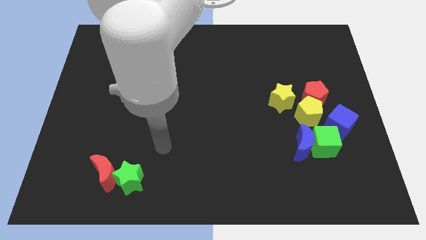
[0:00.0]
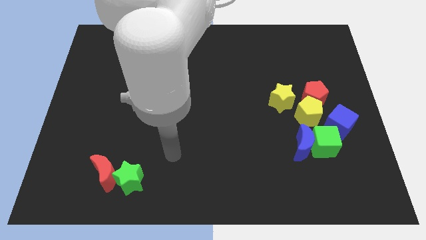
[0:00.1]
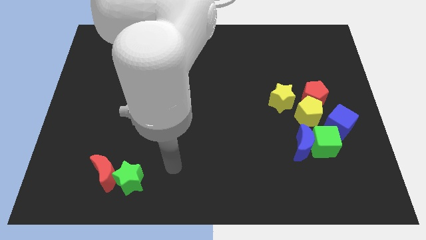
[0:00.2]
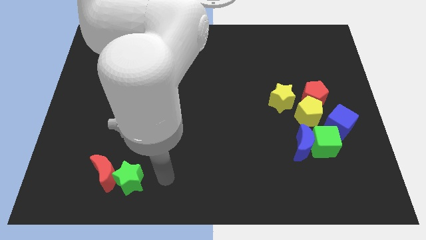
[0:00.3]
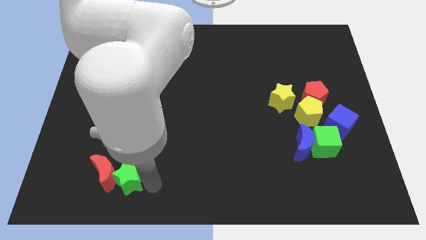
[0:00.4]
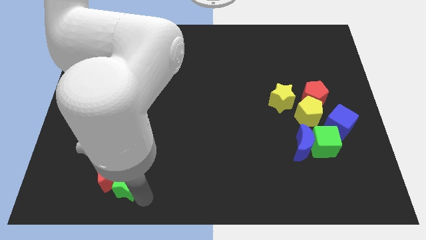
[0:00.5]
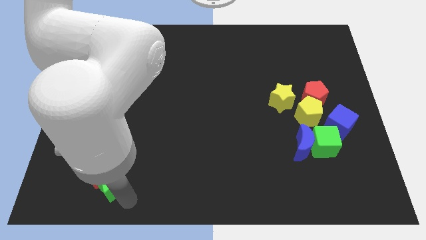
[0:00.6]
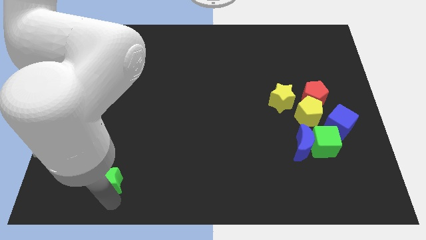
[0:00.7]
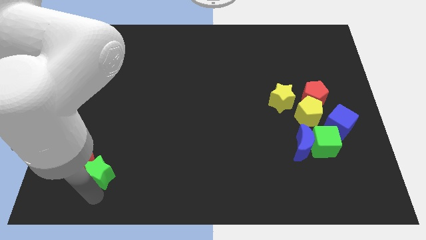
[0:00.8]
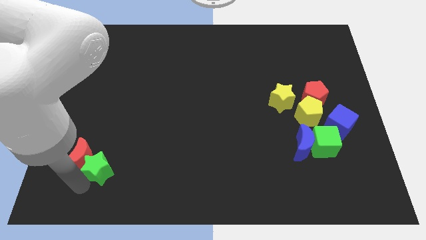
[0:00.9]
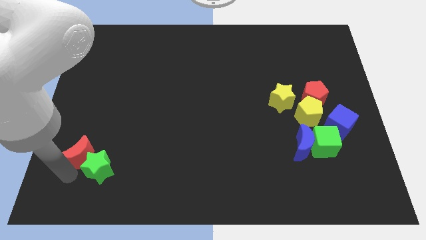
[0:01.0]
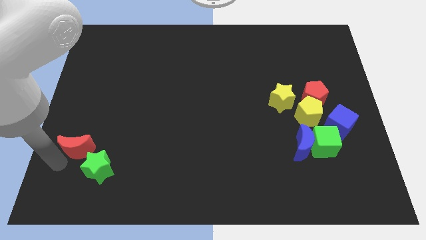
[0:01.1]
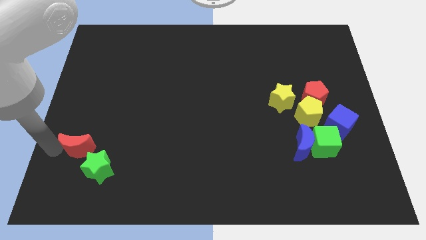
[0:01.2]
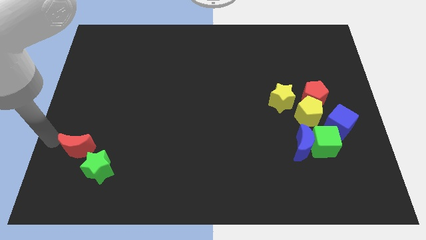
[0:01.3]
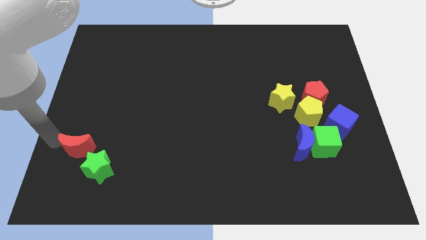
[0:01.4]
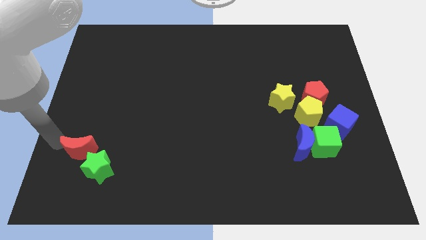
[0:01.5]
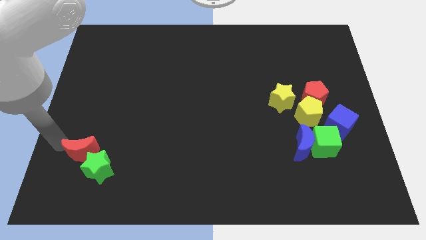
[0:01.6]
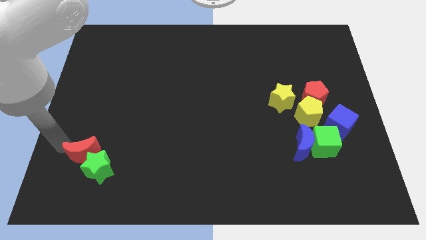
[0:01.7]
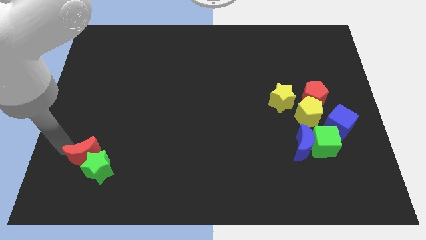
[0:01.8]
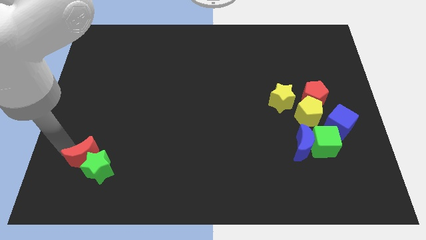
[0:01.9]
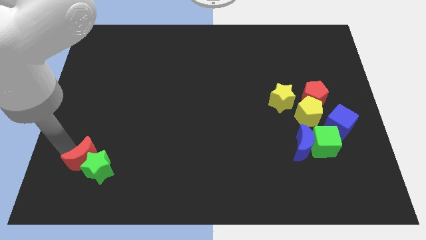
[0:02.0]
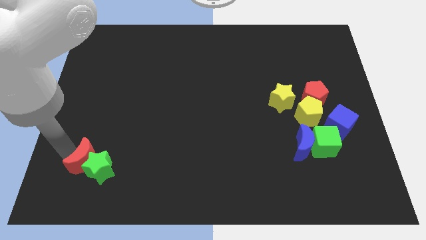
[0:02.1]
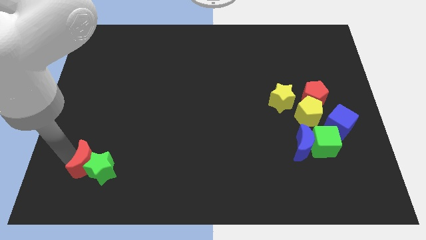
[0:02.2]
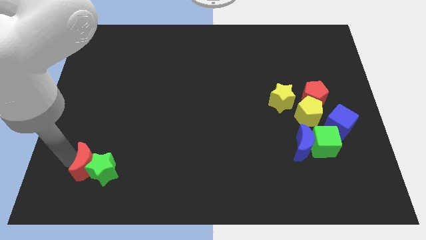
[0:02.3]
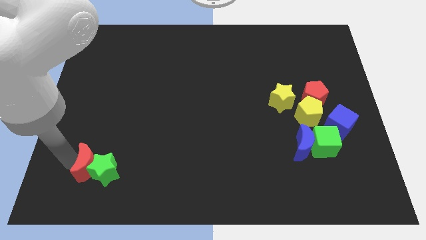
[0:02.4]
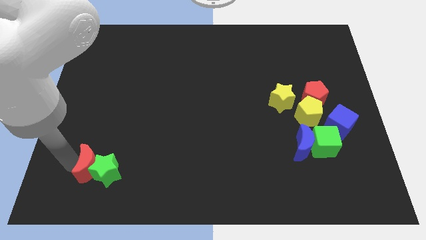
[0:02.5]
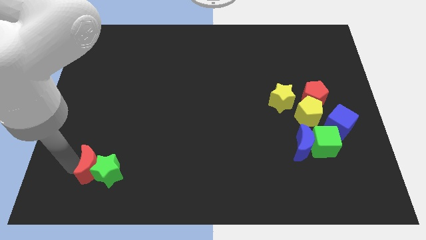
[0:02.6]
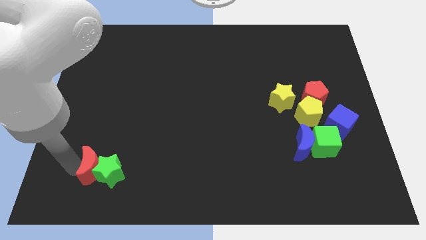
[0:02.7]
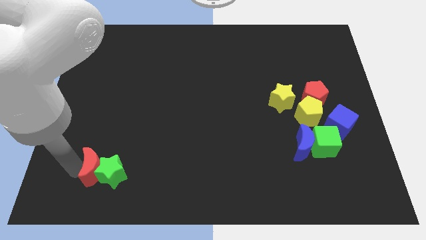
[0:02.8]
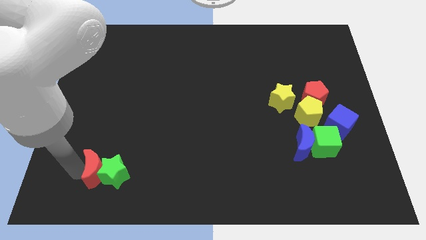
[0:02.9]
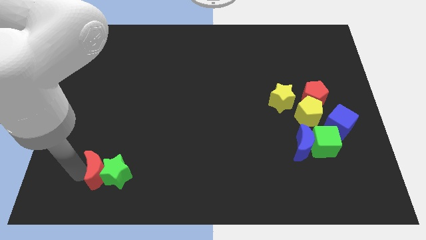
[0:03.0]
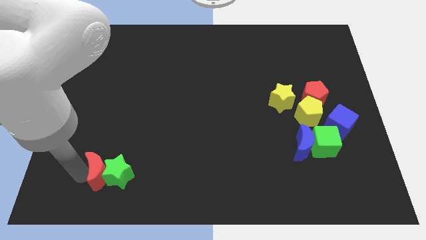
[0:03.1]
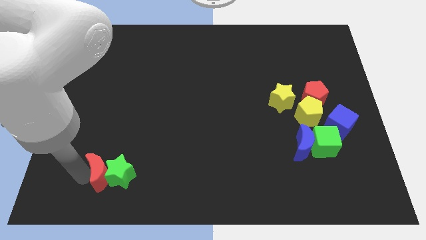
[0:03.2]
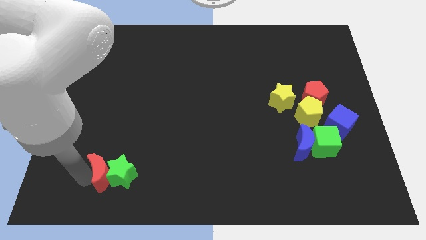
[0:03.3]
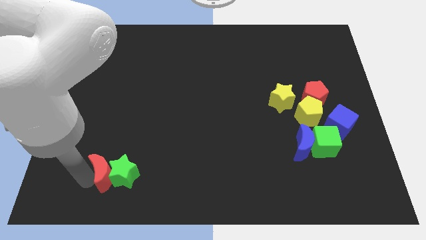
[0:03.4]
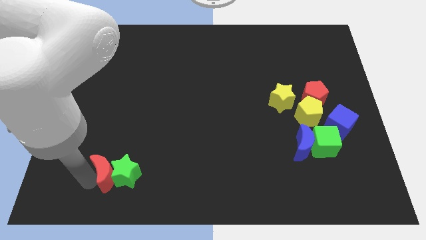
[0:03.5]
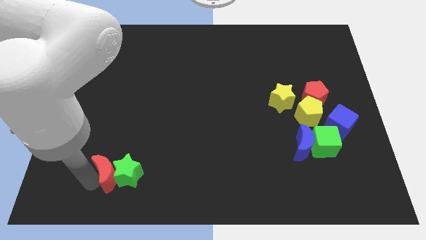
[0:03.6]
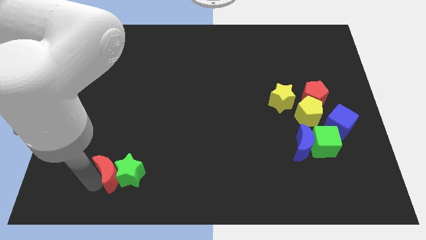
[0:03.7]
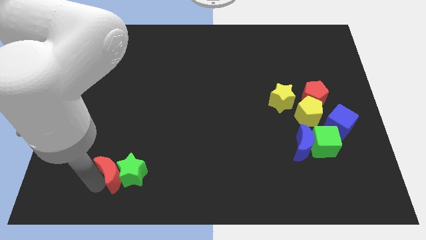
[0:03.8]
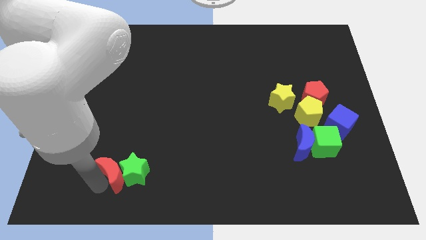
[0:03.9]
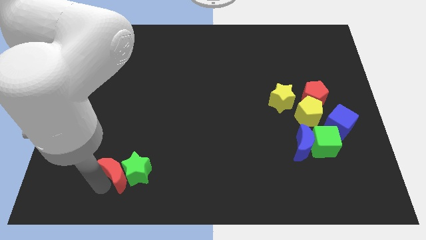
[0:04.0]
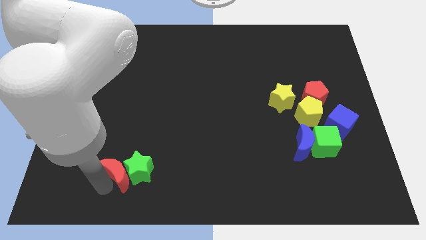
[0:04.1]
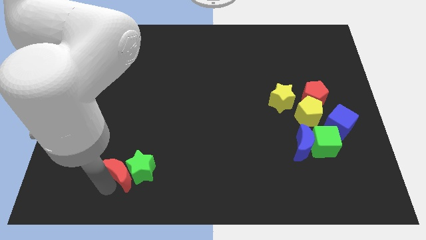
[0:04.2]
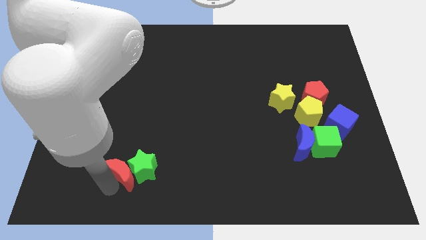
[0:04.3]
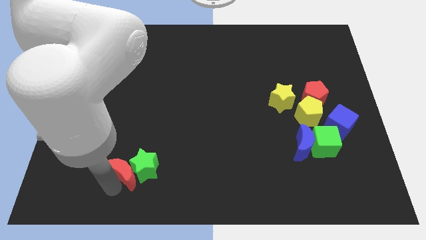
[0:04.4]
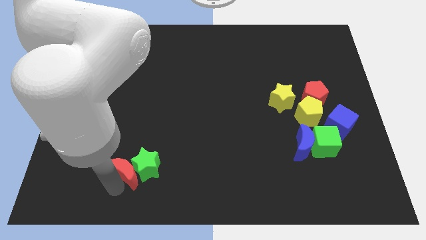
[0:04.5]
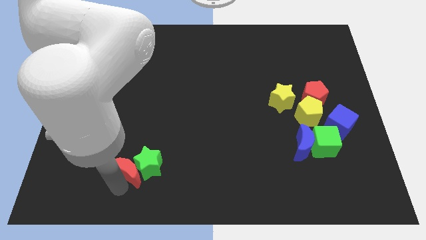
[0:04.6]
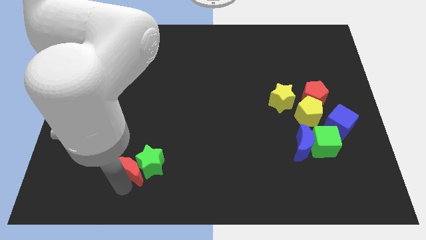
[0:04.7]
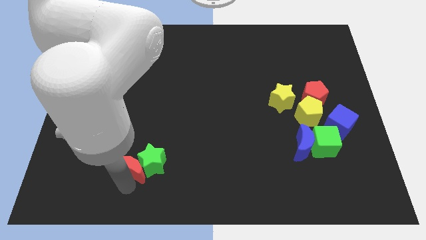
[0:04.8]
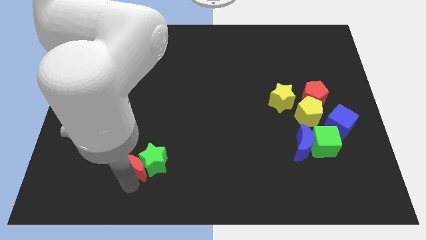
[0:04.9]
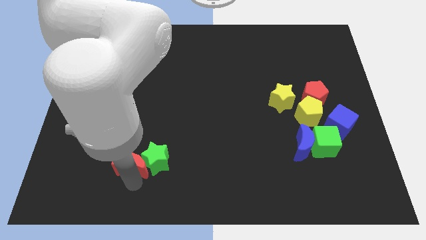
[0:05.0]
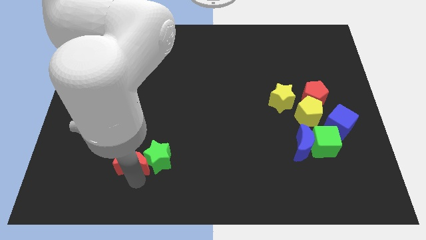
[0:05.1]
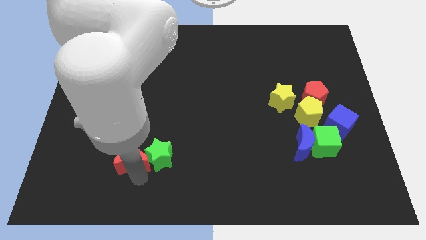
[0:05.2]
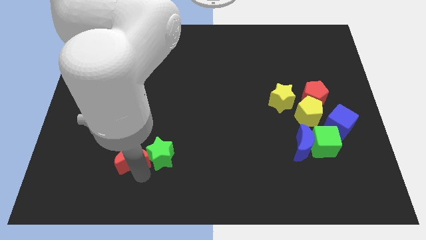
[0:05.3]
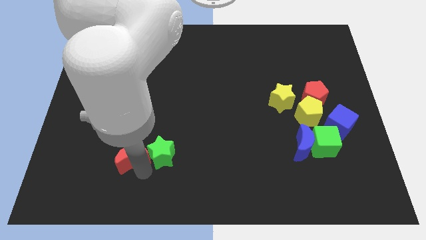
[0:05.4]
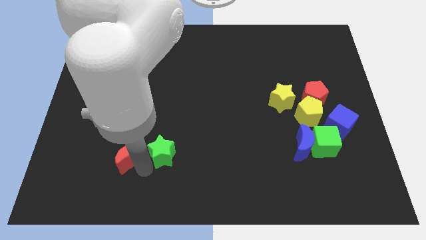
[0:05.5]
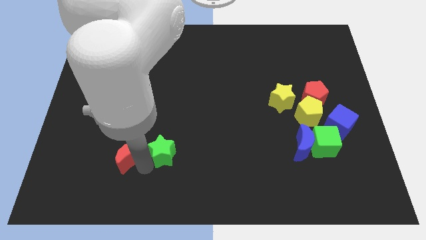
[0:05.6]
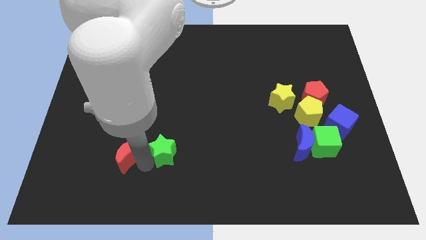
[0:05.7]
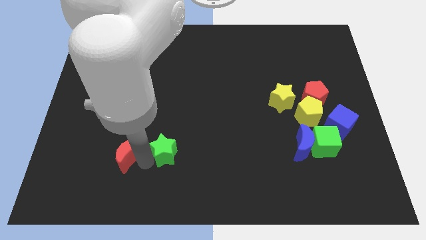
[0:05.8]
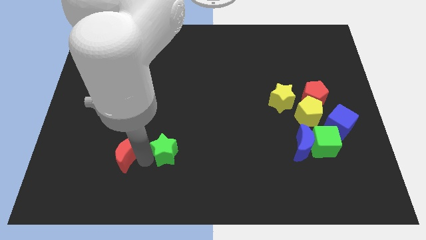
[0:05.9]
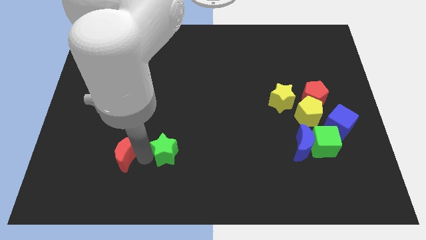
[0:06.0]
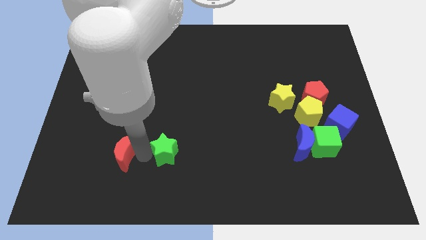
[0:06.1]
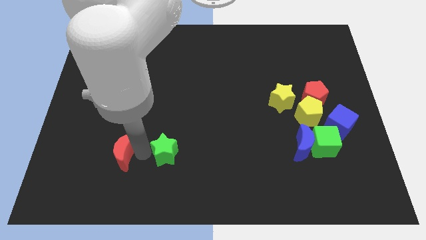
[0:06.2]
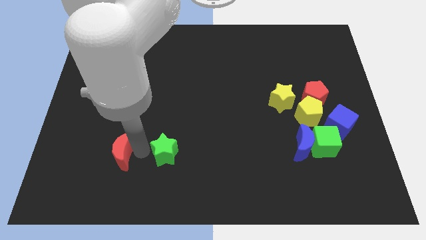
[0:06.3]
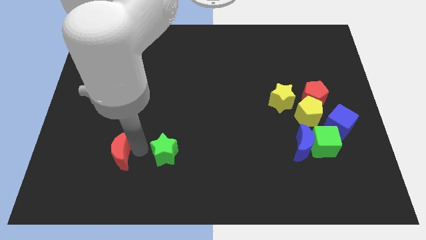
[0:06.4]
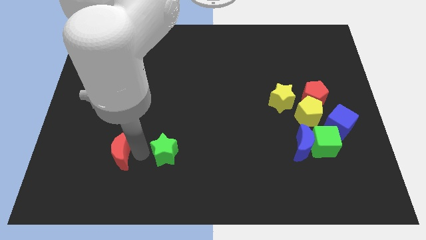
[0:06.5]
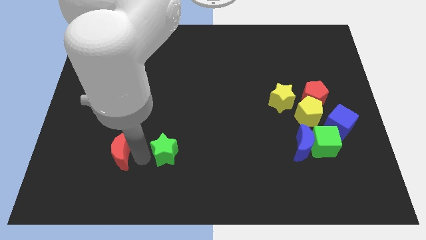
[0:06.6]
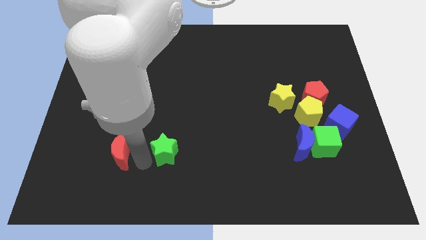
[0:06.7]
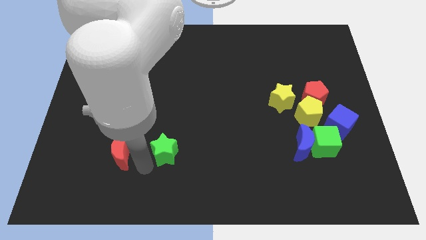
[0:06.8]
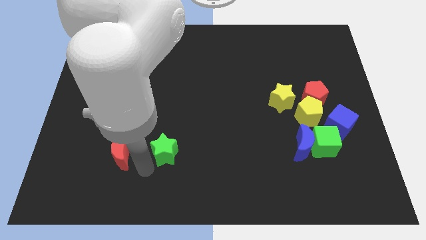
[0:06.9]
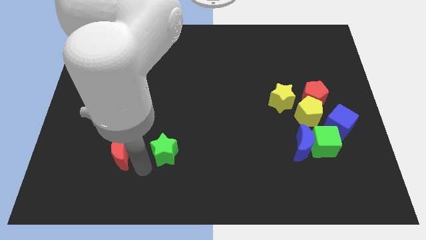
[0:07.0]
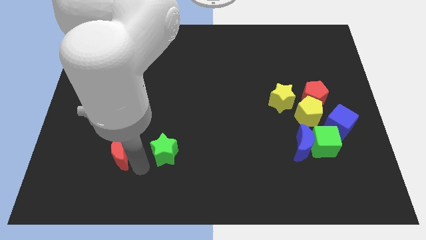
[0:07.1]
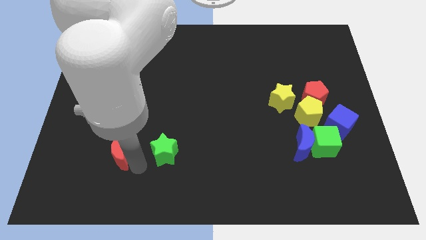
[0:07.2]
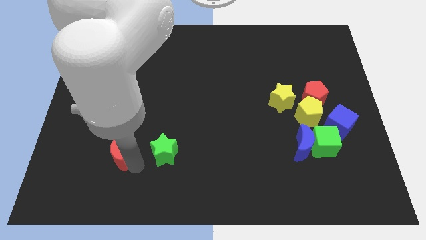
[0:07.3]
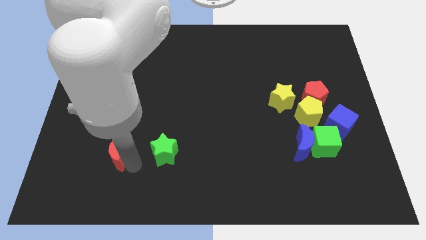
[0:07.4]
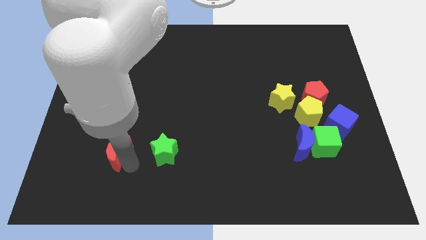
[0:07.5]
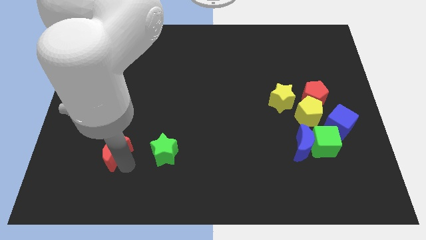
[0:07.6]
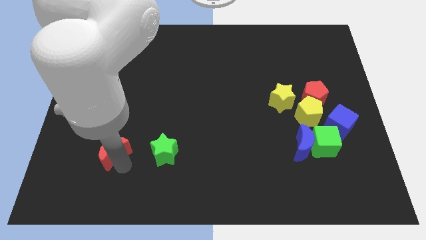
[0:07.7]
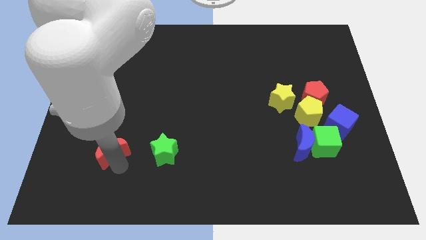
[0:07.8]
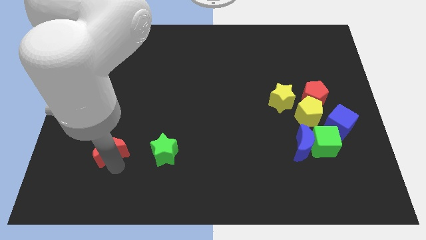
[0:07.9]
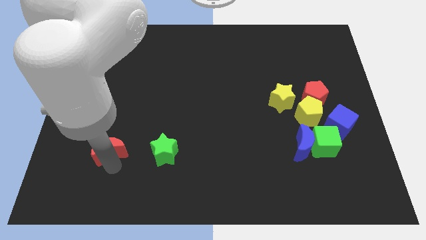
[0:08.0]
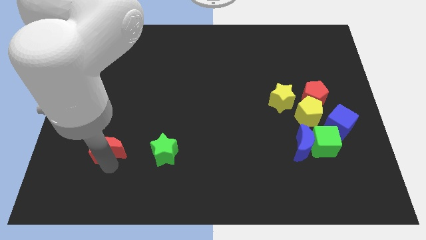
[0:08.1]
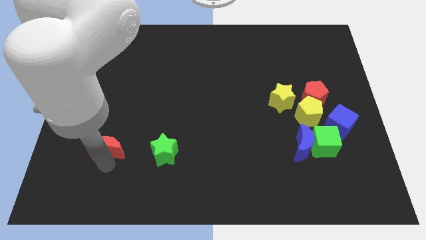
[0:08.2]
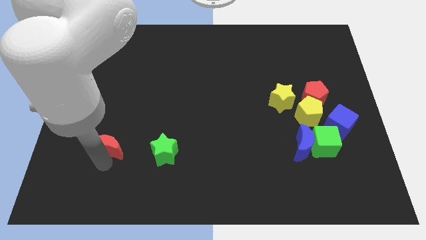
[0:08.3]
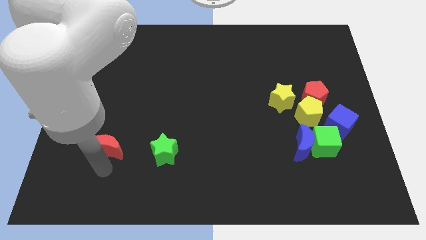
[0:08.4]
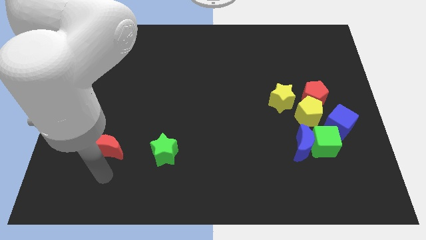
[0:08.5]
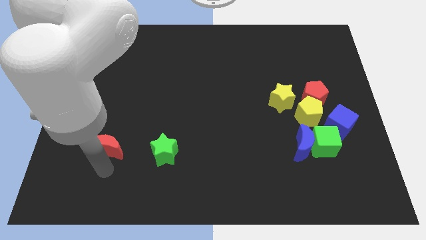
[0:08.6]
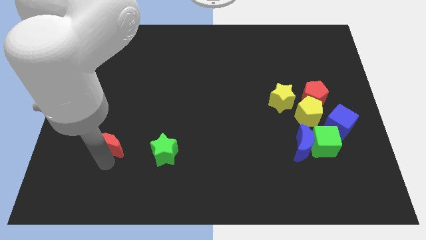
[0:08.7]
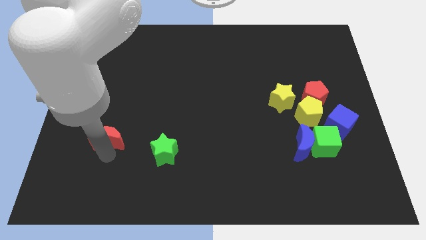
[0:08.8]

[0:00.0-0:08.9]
push the red moon upwards a little
